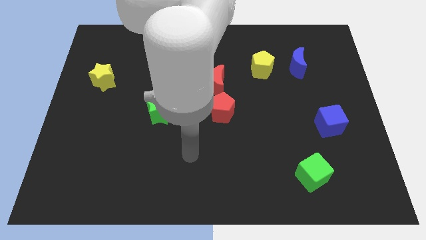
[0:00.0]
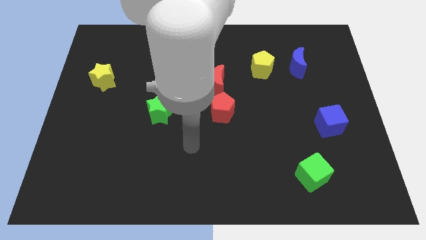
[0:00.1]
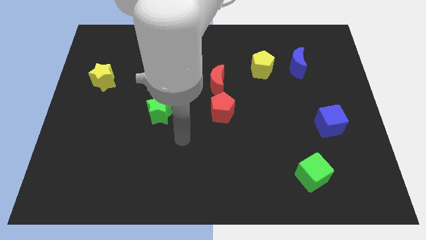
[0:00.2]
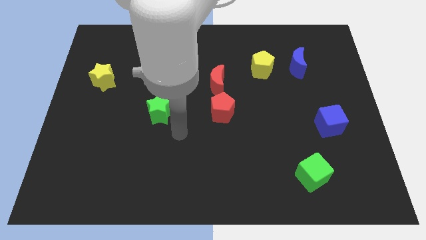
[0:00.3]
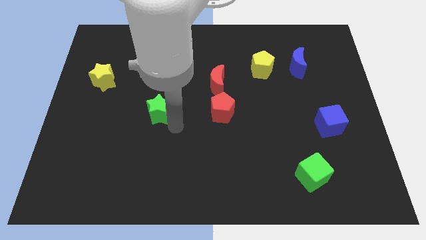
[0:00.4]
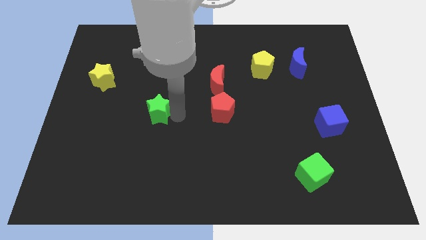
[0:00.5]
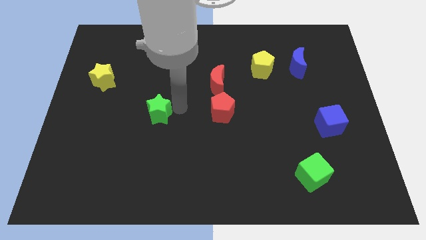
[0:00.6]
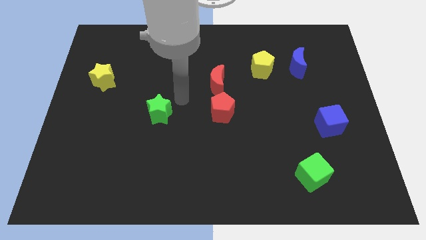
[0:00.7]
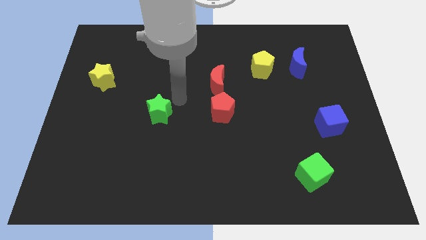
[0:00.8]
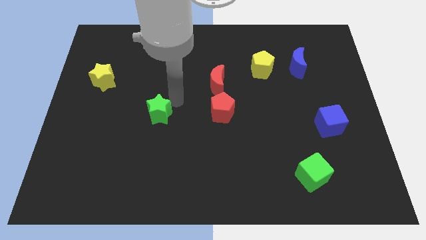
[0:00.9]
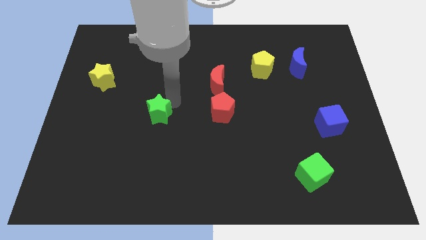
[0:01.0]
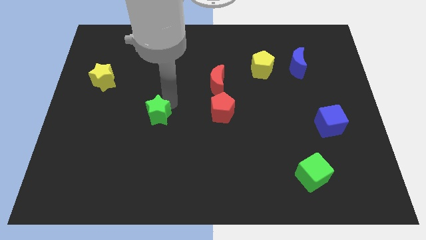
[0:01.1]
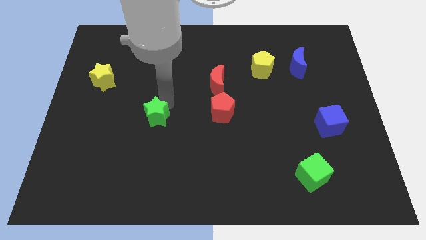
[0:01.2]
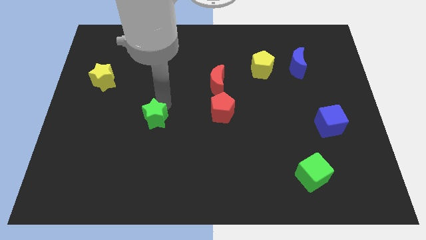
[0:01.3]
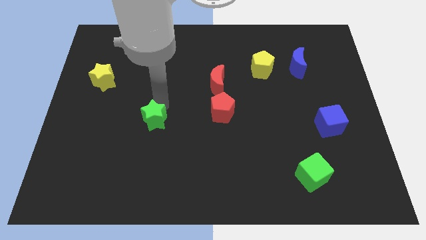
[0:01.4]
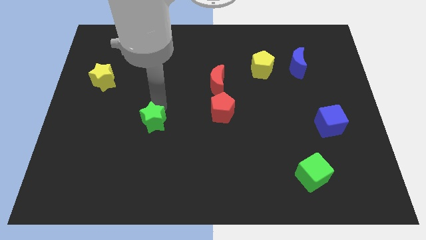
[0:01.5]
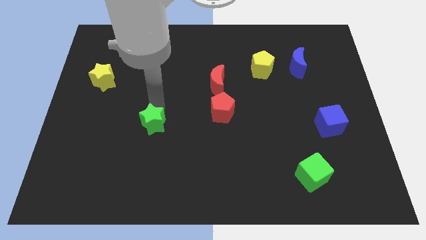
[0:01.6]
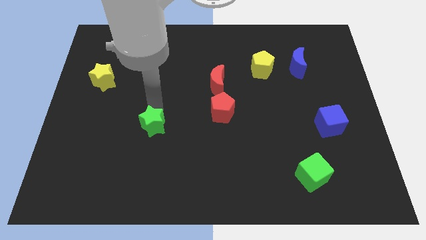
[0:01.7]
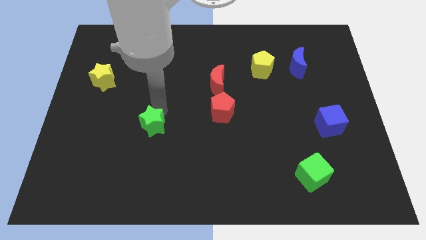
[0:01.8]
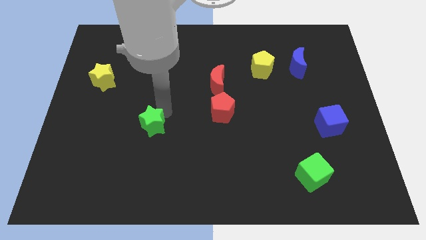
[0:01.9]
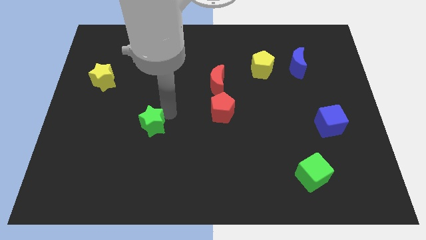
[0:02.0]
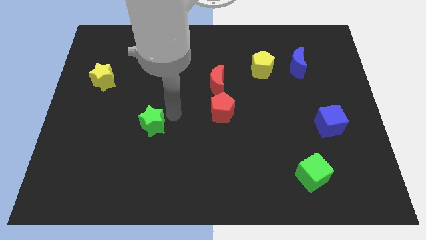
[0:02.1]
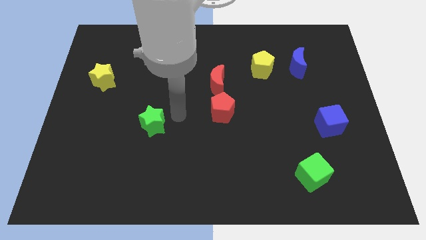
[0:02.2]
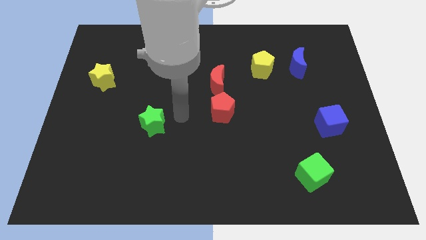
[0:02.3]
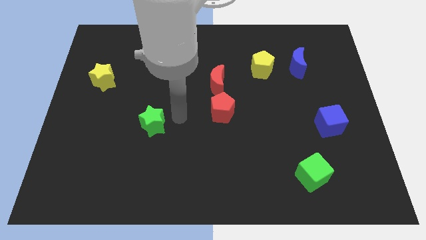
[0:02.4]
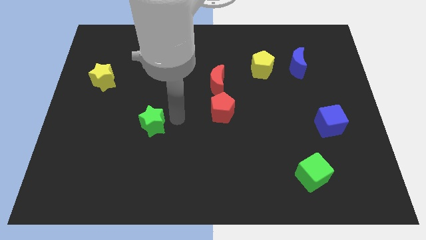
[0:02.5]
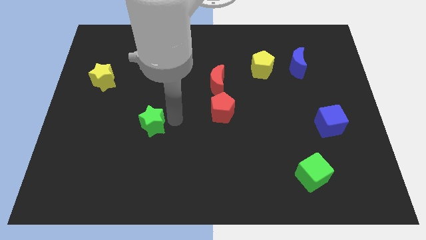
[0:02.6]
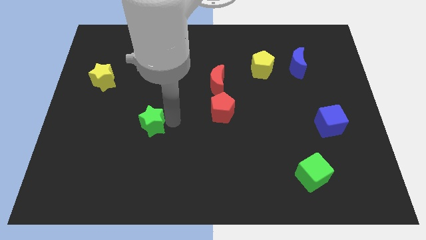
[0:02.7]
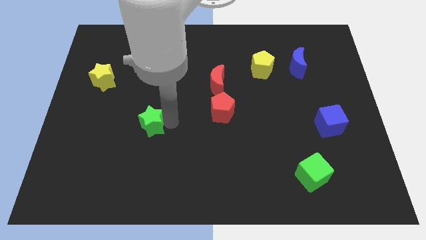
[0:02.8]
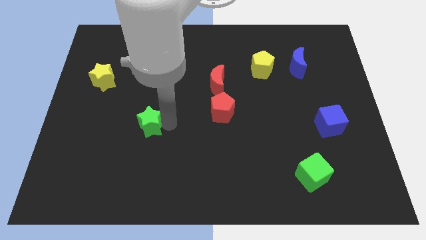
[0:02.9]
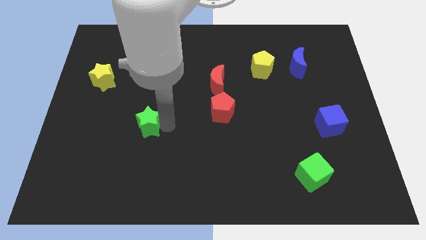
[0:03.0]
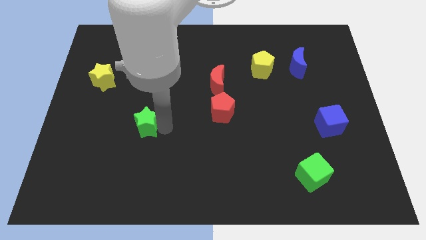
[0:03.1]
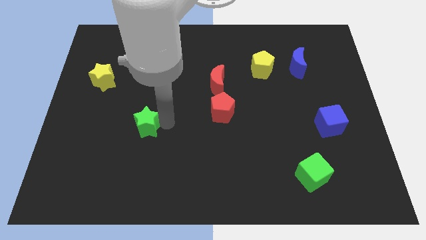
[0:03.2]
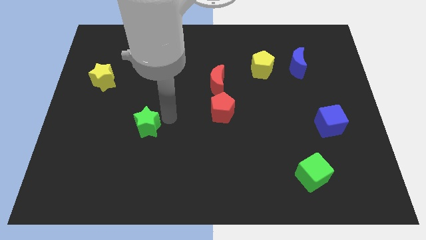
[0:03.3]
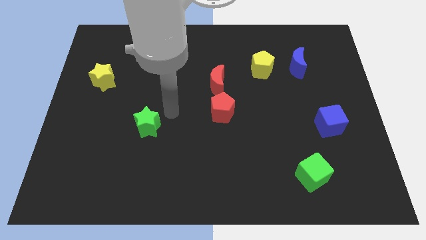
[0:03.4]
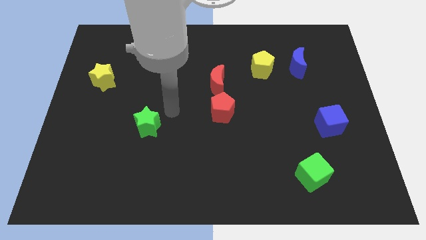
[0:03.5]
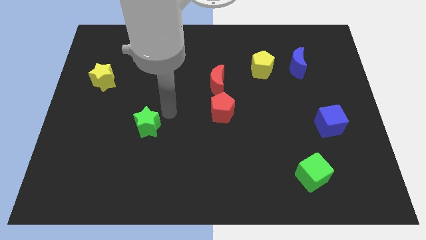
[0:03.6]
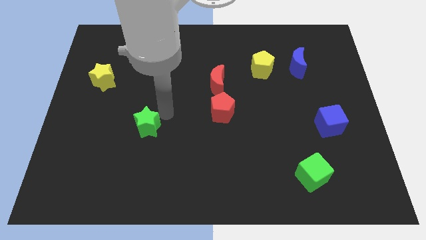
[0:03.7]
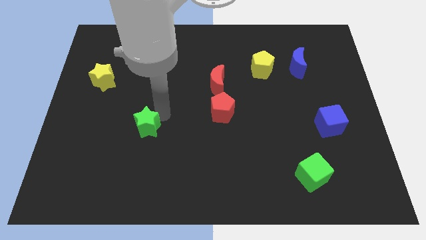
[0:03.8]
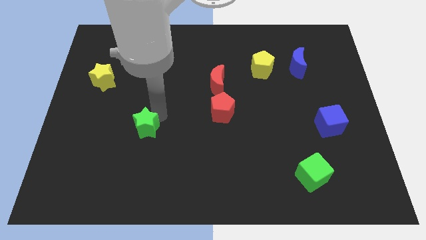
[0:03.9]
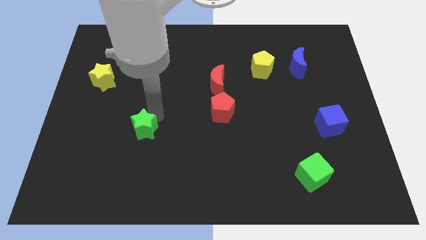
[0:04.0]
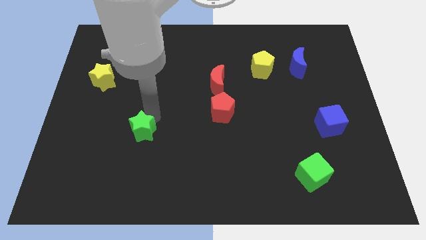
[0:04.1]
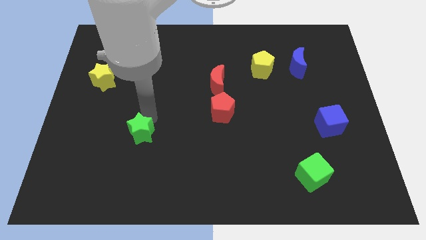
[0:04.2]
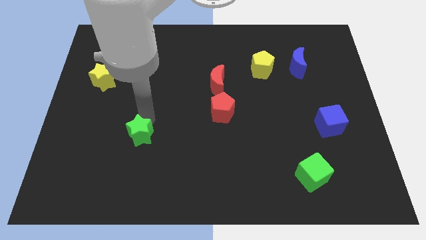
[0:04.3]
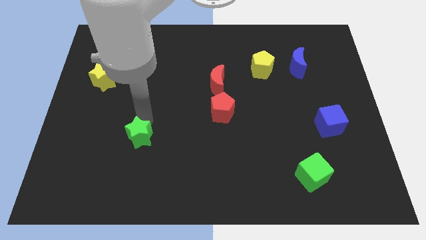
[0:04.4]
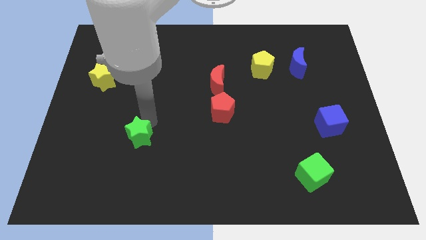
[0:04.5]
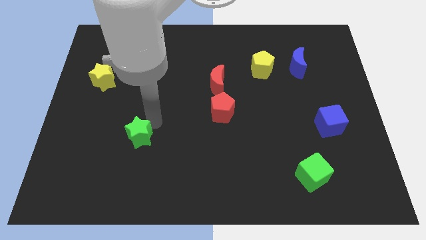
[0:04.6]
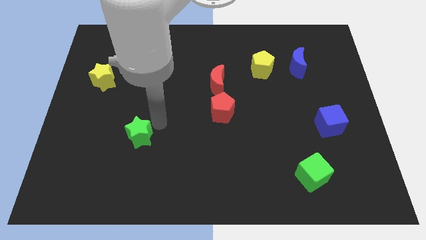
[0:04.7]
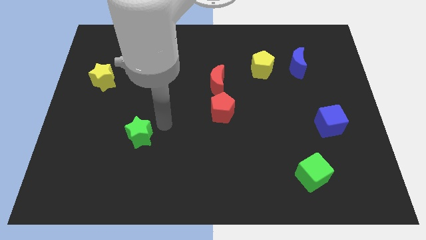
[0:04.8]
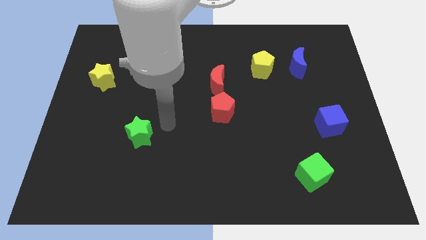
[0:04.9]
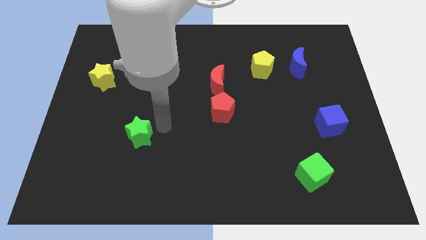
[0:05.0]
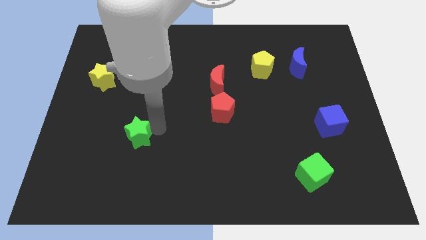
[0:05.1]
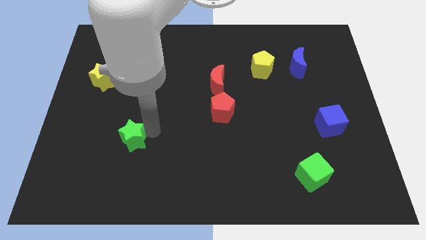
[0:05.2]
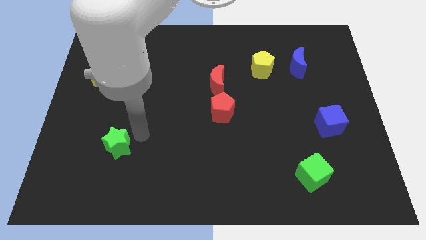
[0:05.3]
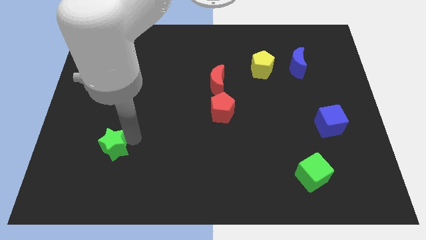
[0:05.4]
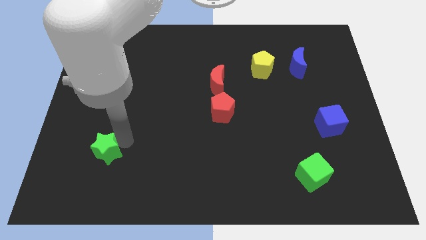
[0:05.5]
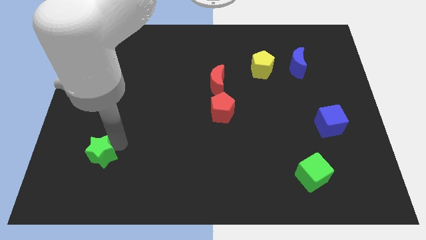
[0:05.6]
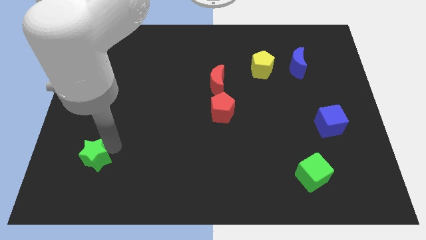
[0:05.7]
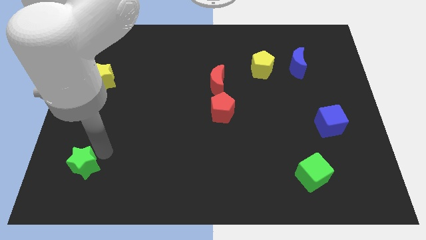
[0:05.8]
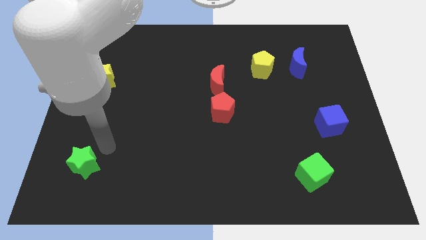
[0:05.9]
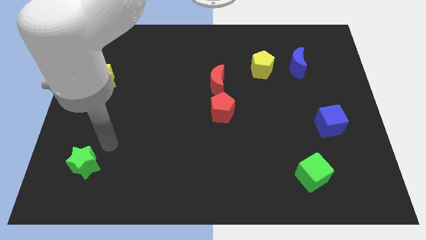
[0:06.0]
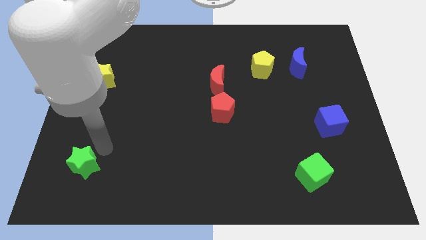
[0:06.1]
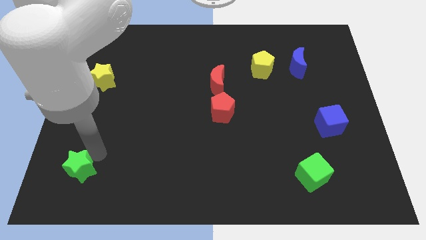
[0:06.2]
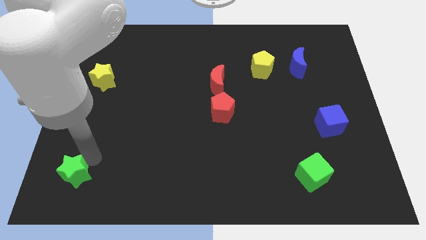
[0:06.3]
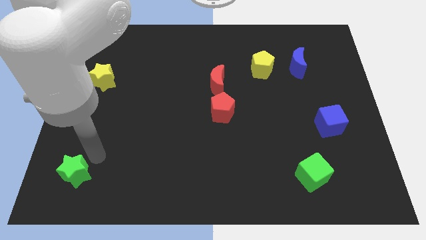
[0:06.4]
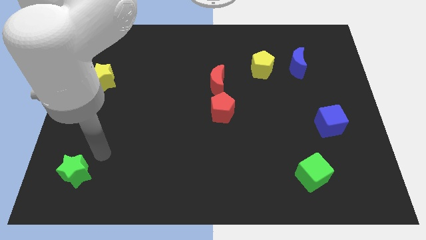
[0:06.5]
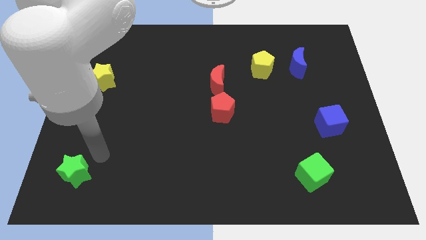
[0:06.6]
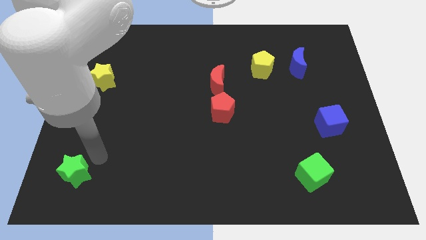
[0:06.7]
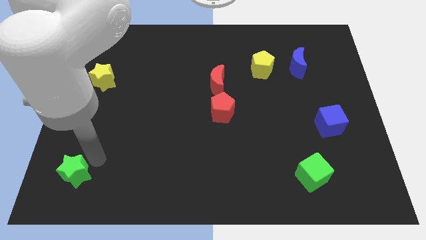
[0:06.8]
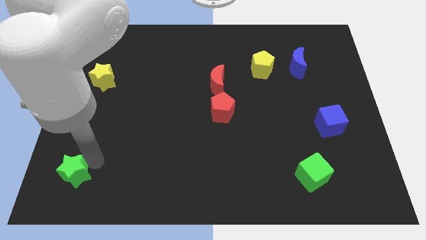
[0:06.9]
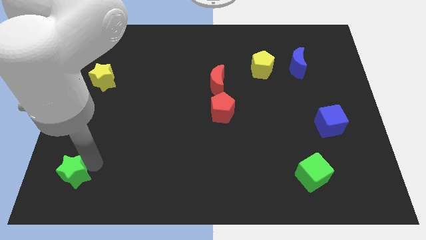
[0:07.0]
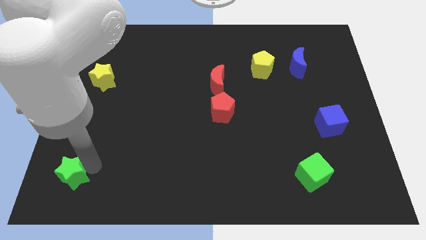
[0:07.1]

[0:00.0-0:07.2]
move the green star to the bottom left
